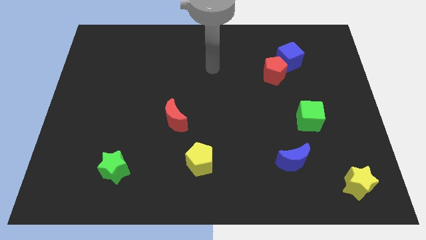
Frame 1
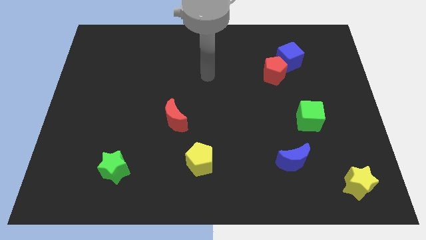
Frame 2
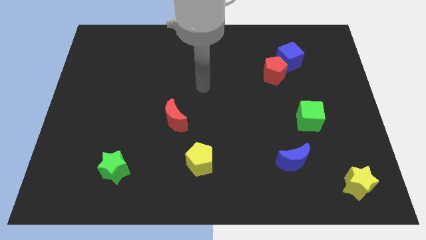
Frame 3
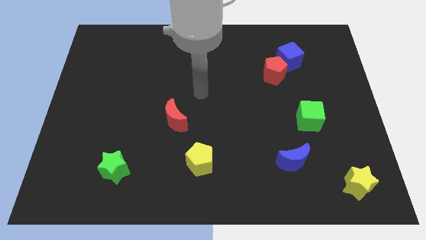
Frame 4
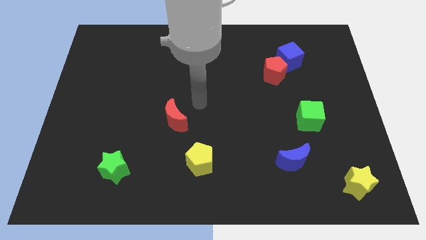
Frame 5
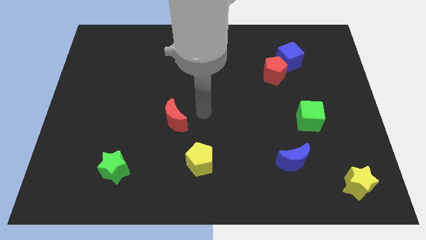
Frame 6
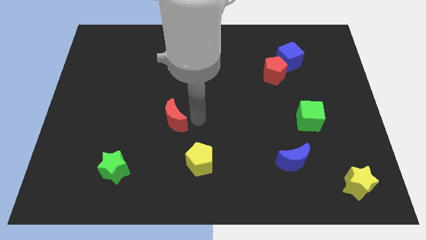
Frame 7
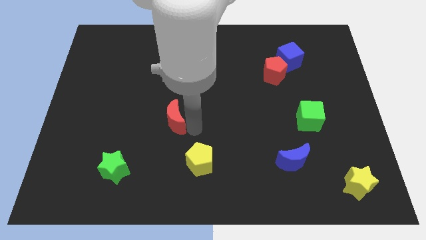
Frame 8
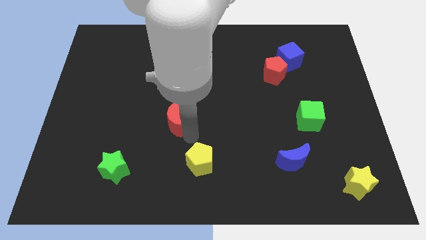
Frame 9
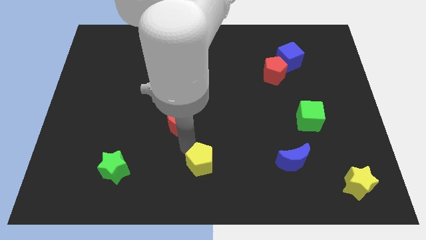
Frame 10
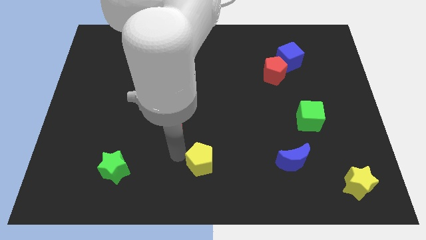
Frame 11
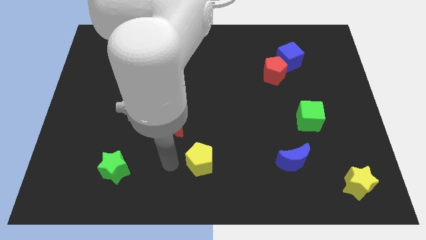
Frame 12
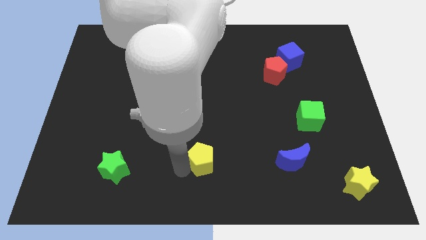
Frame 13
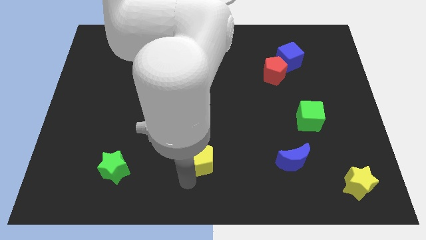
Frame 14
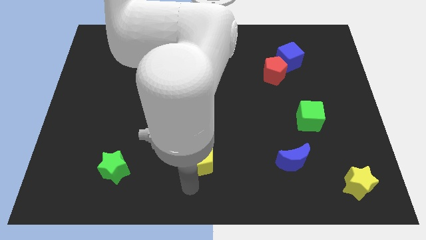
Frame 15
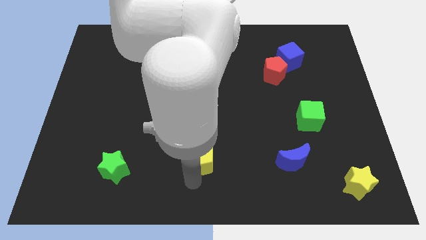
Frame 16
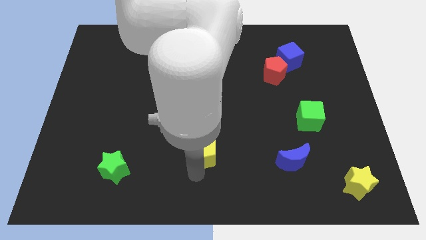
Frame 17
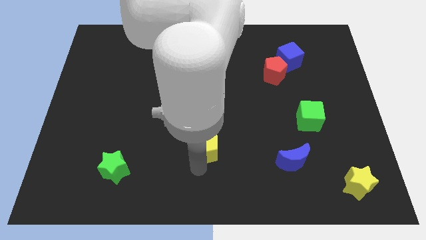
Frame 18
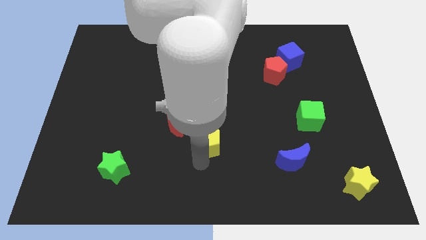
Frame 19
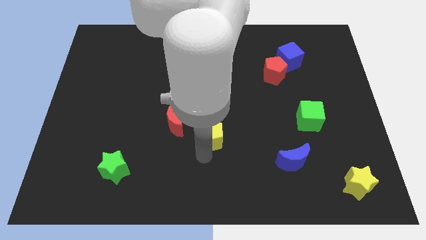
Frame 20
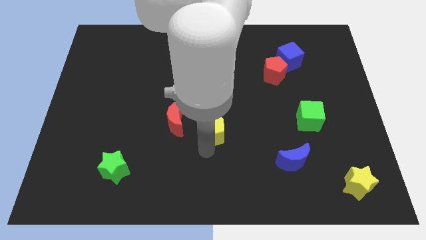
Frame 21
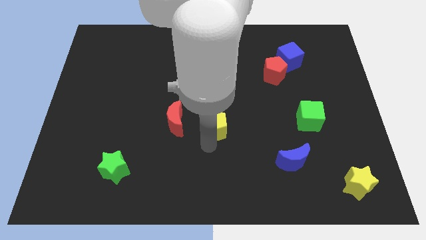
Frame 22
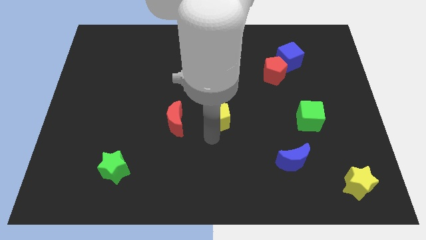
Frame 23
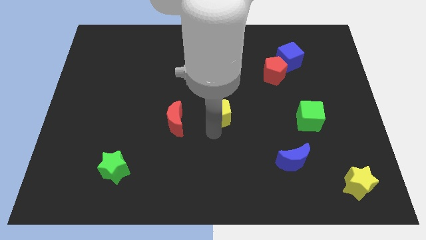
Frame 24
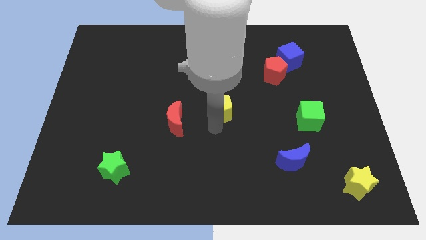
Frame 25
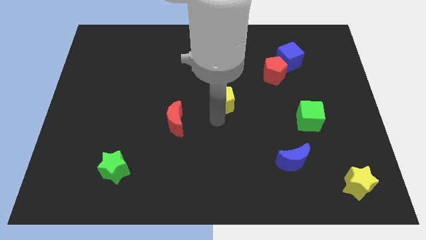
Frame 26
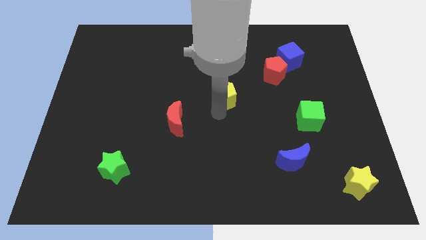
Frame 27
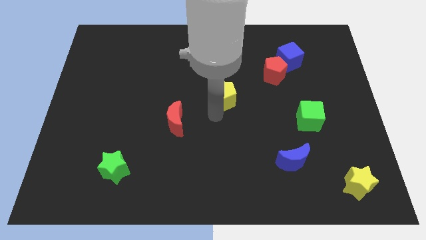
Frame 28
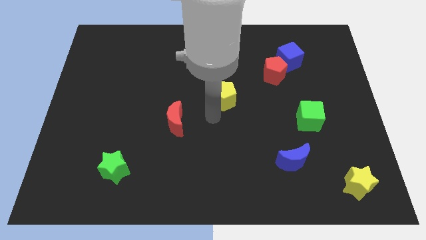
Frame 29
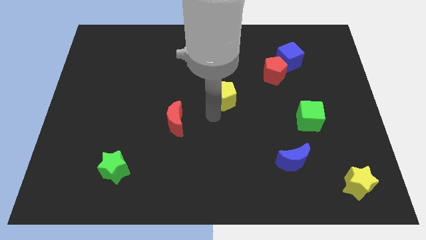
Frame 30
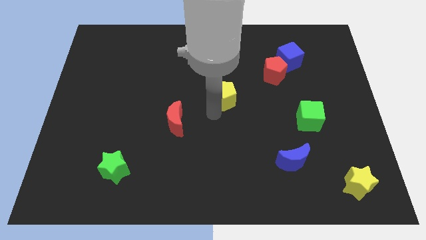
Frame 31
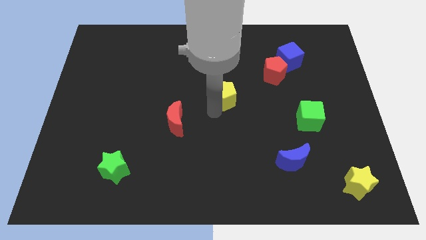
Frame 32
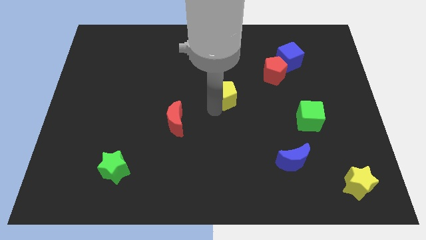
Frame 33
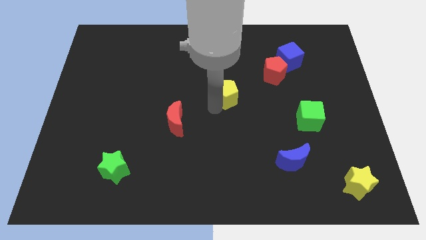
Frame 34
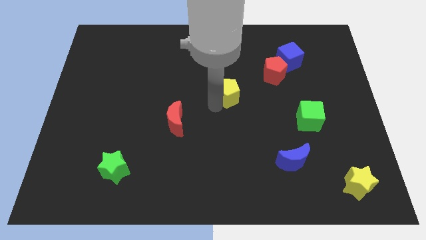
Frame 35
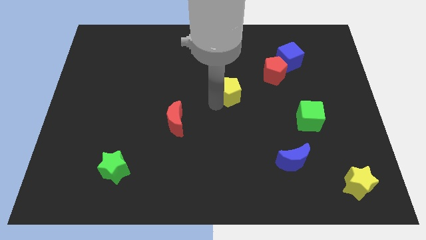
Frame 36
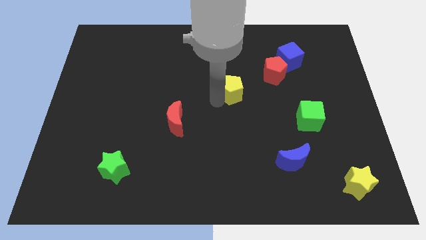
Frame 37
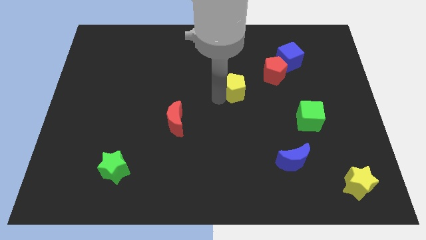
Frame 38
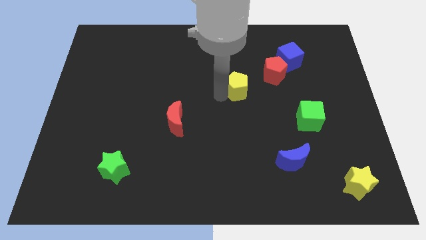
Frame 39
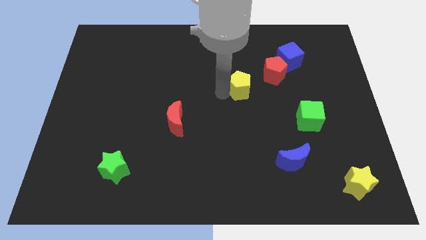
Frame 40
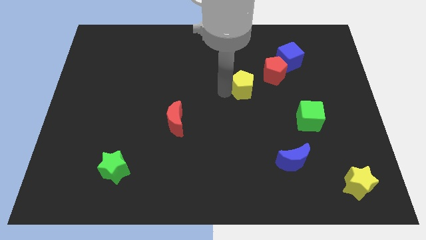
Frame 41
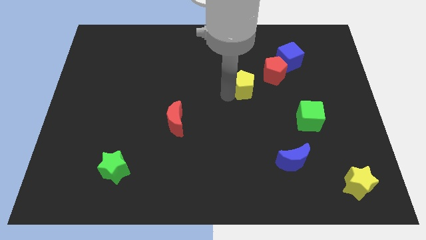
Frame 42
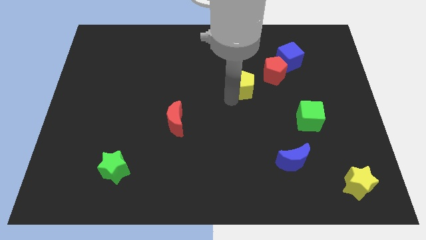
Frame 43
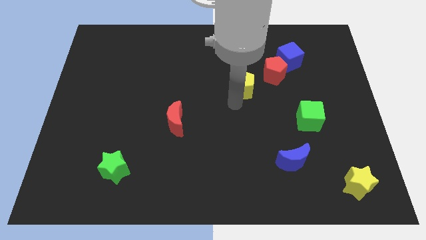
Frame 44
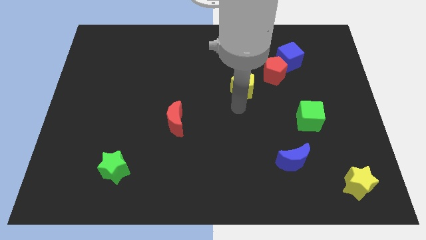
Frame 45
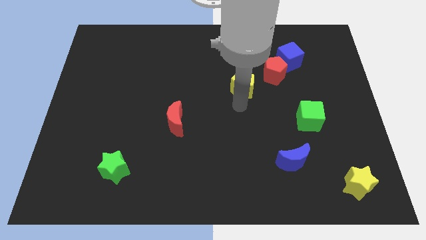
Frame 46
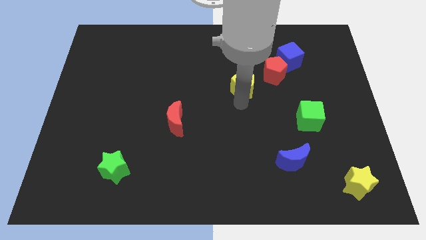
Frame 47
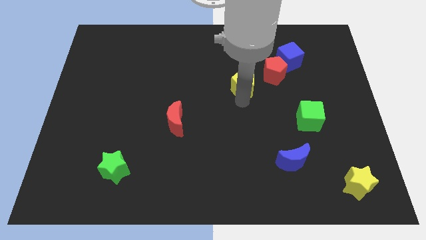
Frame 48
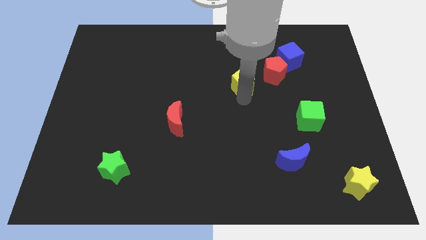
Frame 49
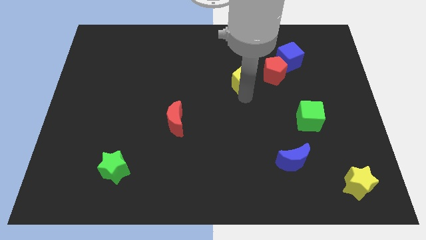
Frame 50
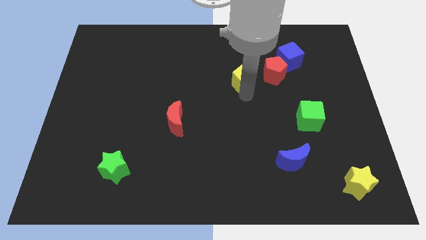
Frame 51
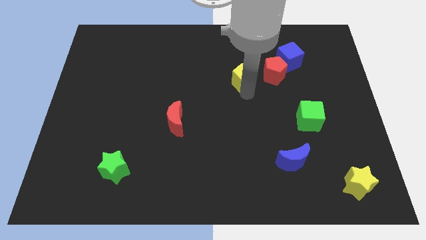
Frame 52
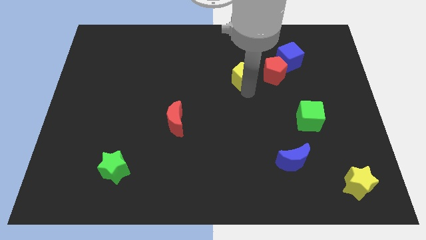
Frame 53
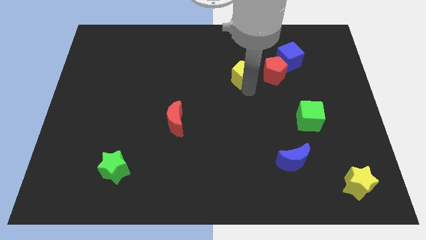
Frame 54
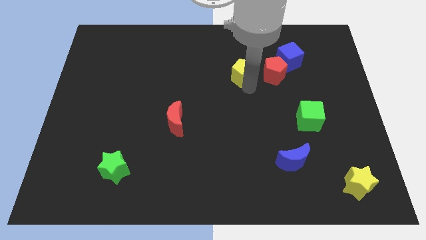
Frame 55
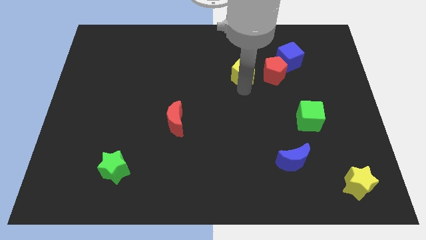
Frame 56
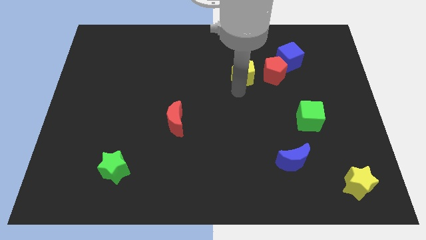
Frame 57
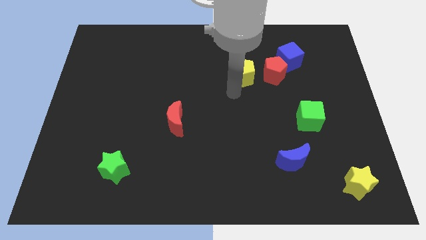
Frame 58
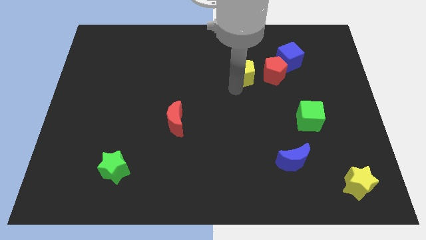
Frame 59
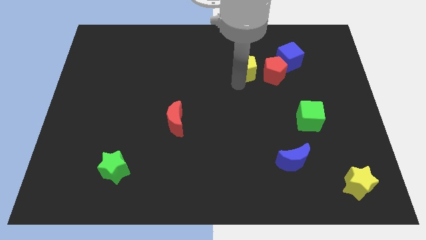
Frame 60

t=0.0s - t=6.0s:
push the yellow pentagon to the top left side of the red pentagon

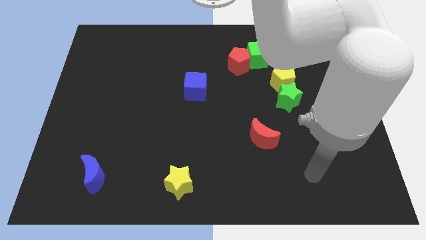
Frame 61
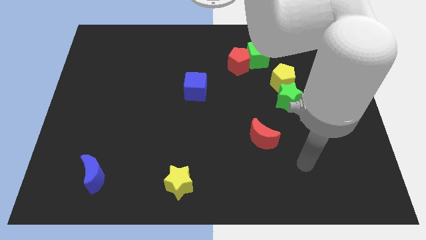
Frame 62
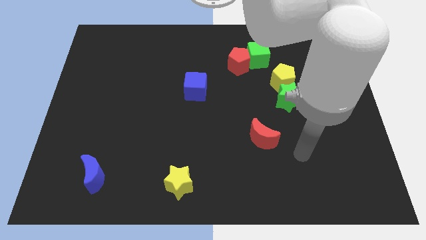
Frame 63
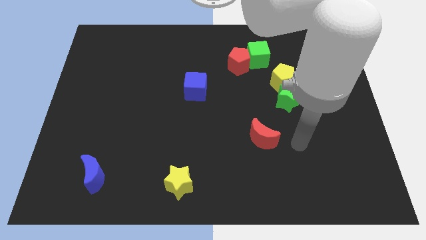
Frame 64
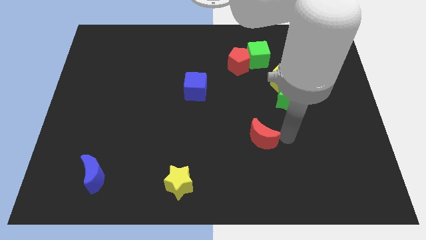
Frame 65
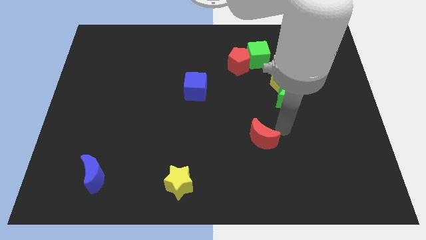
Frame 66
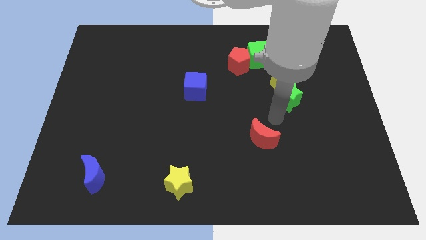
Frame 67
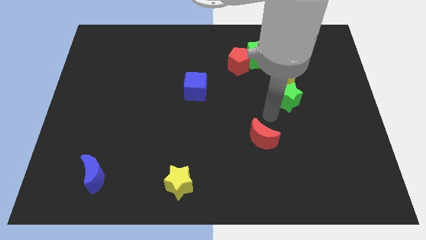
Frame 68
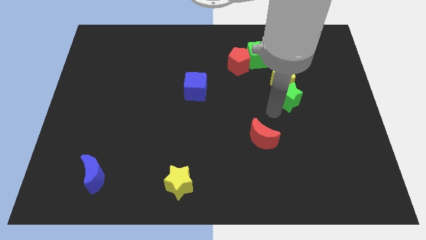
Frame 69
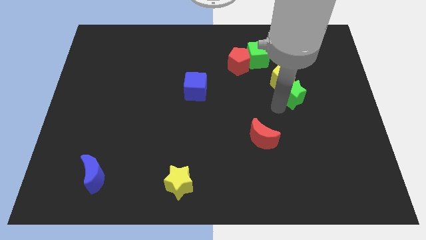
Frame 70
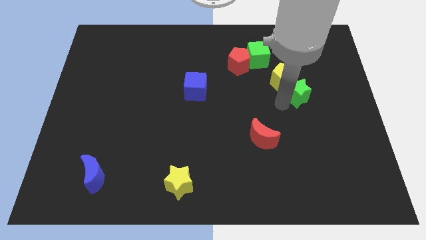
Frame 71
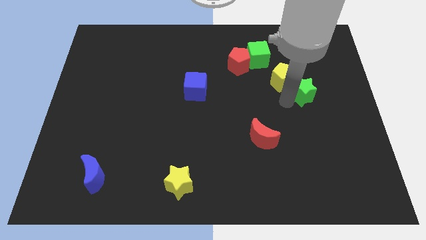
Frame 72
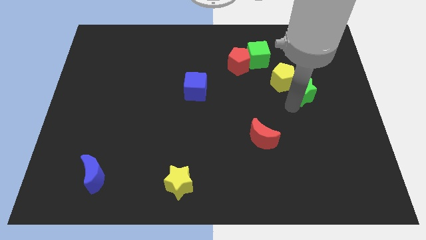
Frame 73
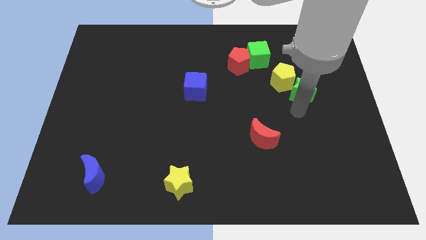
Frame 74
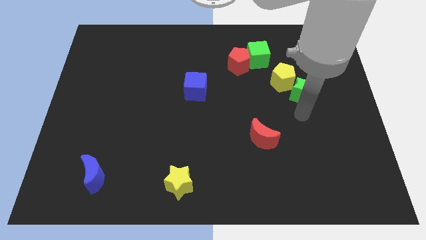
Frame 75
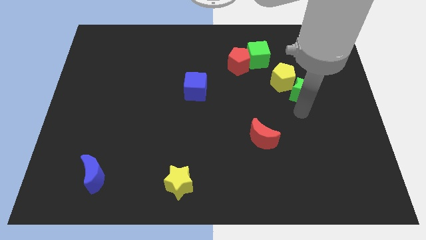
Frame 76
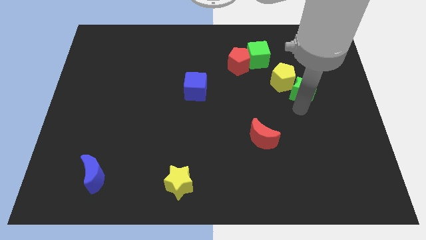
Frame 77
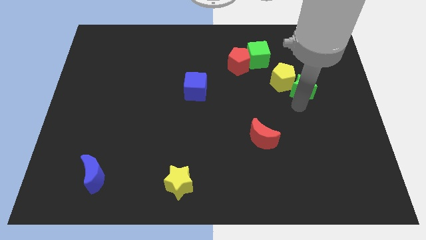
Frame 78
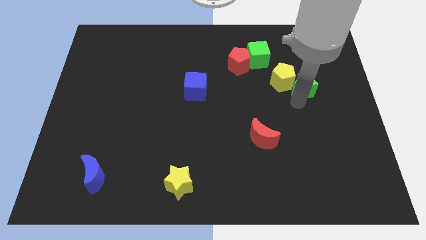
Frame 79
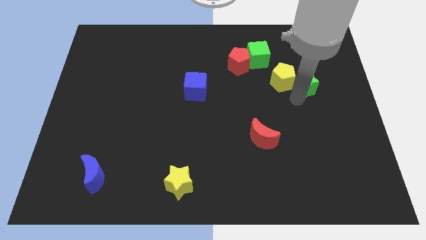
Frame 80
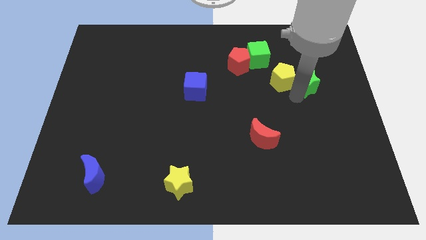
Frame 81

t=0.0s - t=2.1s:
push the green star to the top right side of the yellow pentagon
